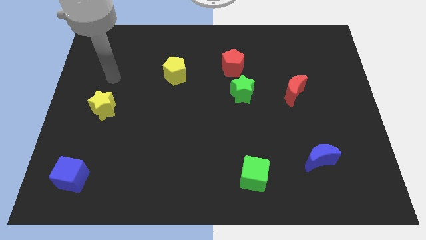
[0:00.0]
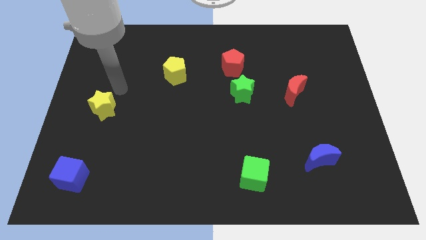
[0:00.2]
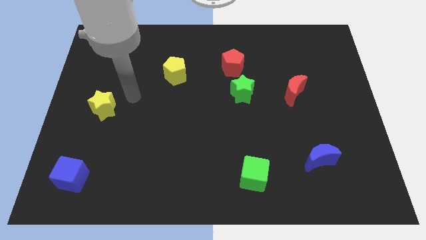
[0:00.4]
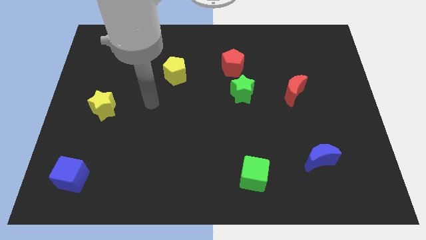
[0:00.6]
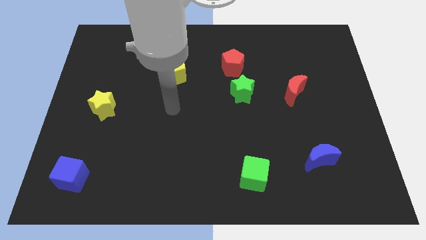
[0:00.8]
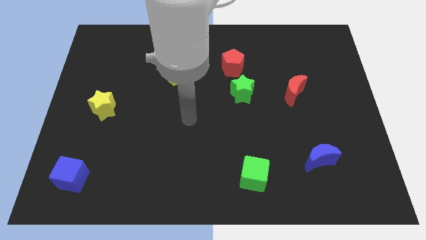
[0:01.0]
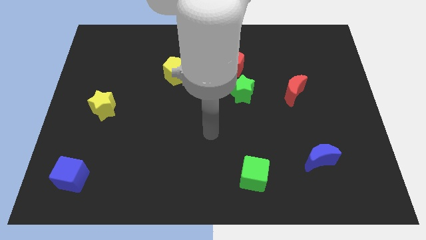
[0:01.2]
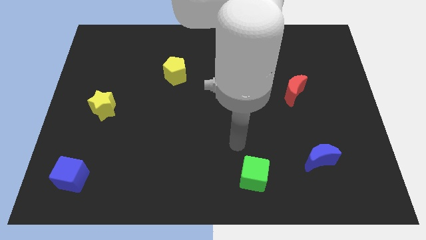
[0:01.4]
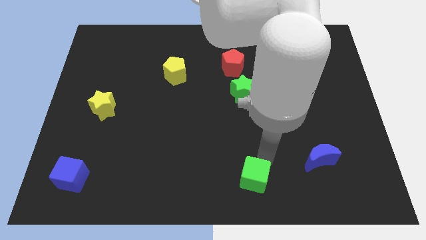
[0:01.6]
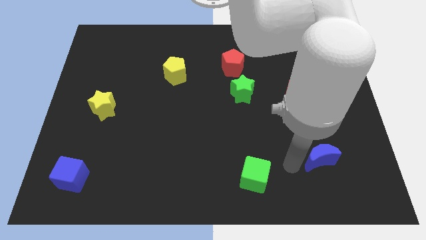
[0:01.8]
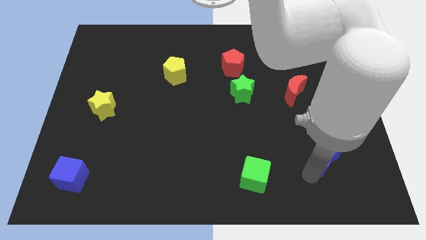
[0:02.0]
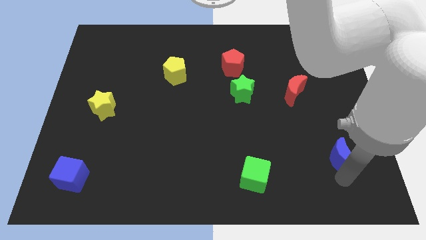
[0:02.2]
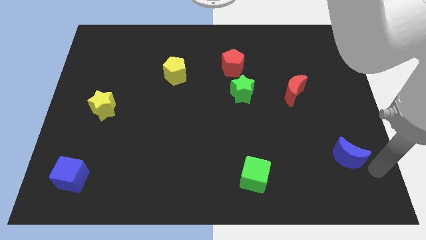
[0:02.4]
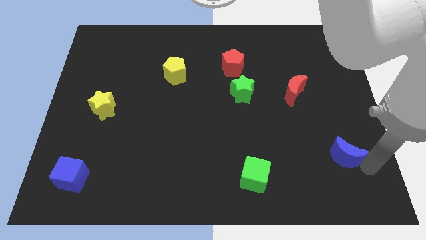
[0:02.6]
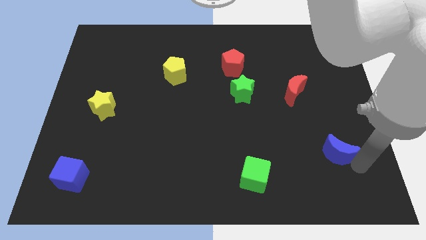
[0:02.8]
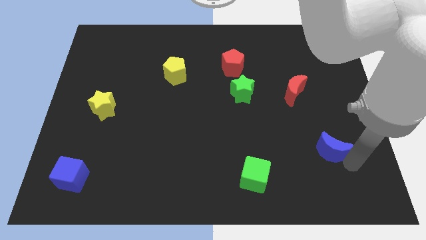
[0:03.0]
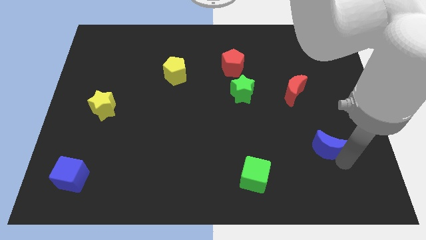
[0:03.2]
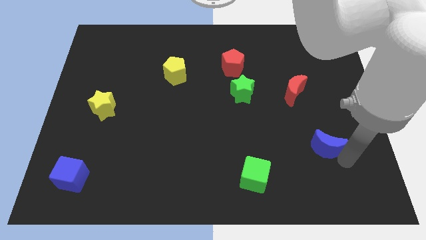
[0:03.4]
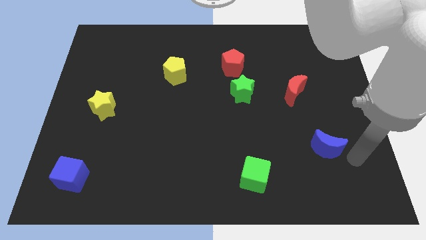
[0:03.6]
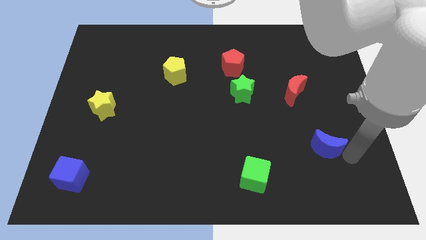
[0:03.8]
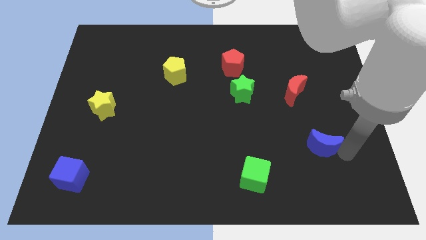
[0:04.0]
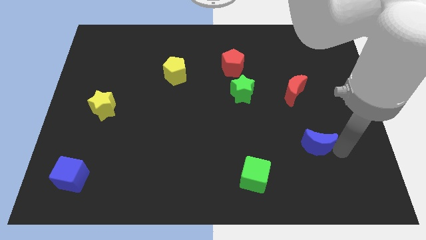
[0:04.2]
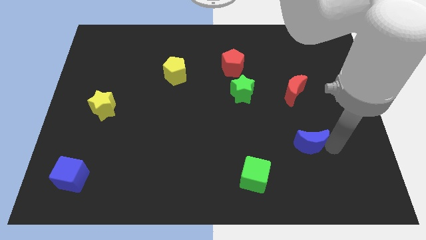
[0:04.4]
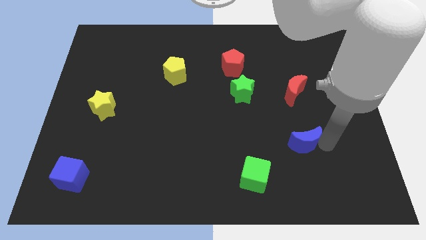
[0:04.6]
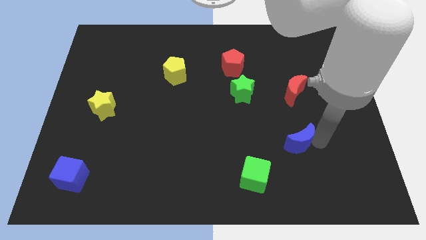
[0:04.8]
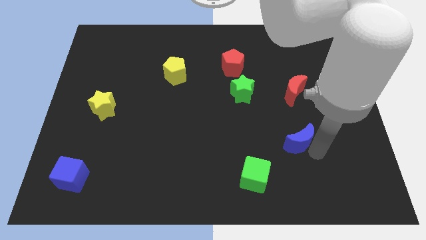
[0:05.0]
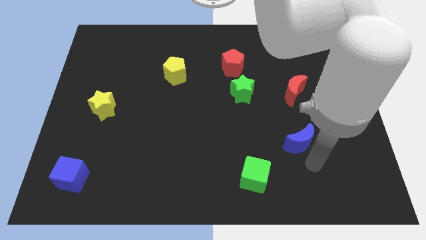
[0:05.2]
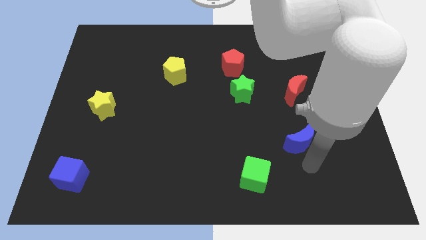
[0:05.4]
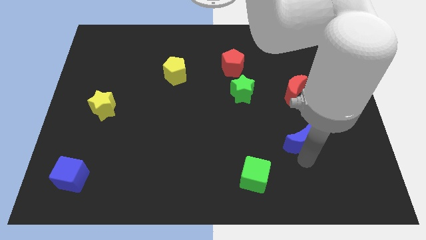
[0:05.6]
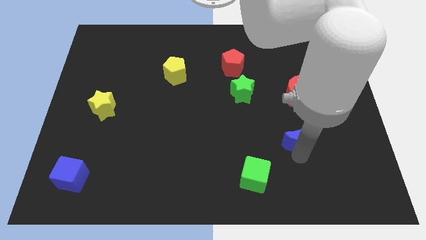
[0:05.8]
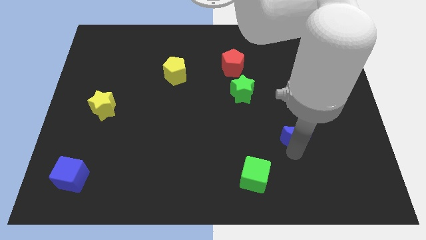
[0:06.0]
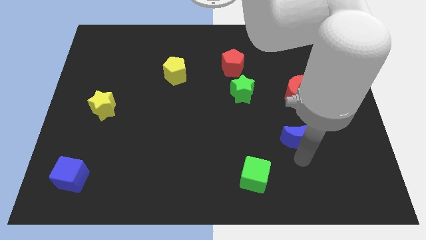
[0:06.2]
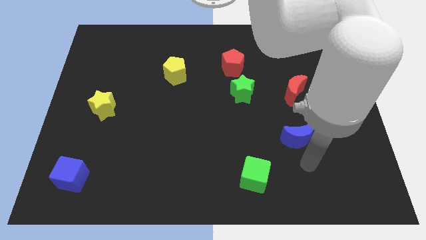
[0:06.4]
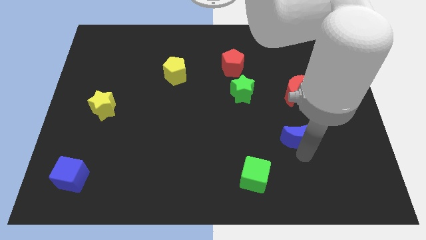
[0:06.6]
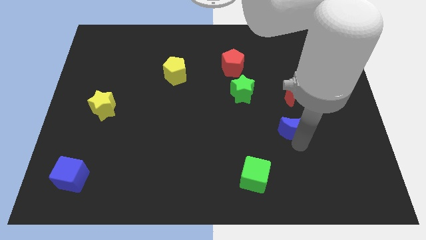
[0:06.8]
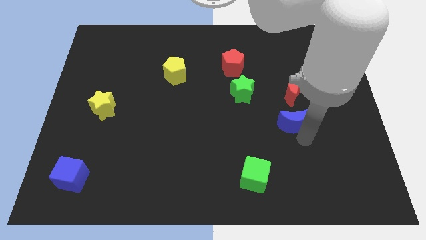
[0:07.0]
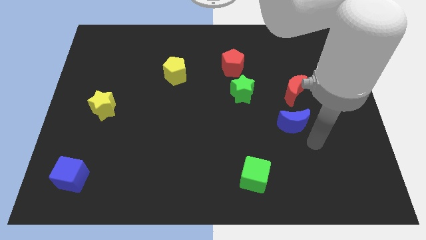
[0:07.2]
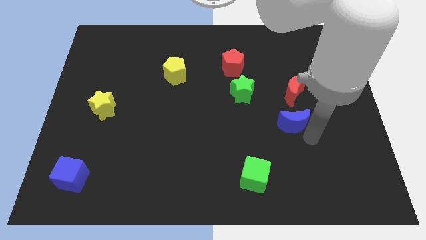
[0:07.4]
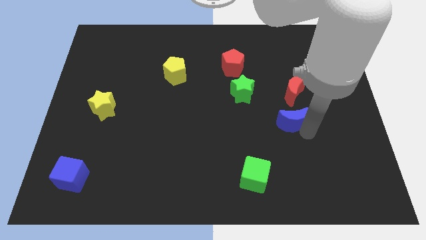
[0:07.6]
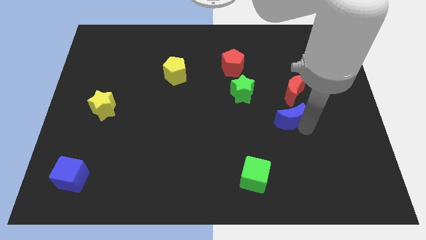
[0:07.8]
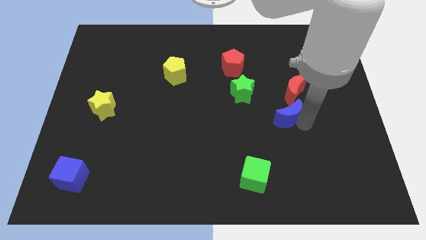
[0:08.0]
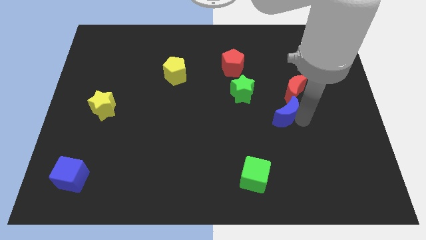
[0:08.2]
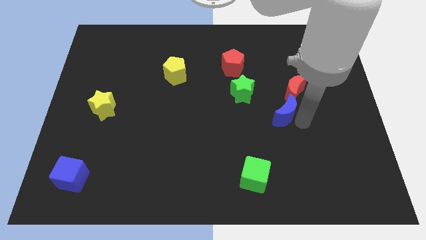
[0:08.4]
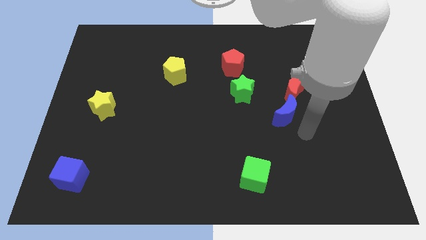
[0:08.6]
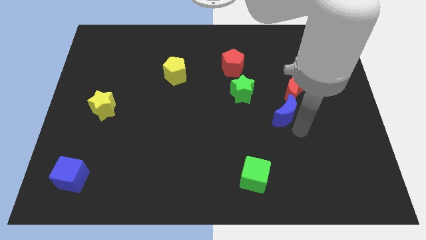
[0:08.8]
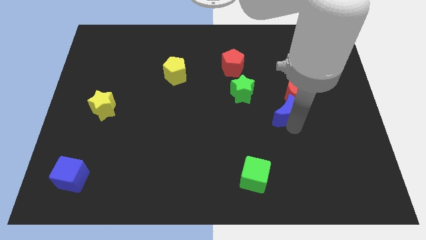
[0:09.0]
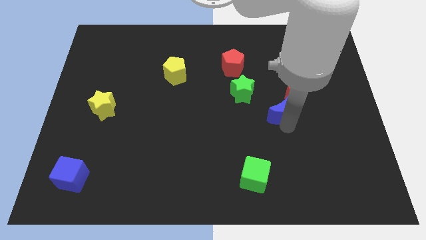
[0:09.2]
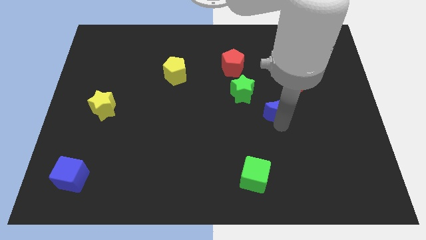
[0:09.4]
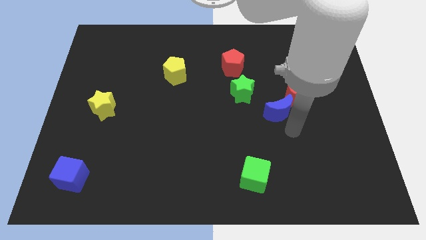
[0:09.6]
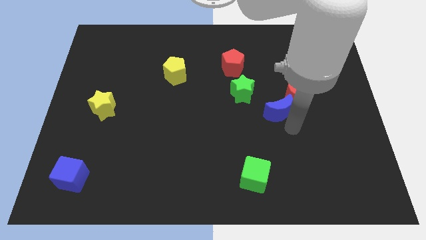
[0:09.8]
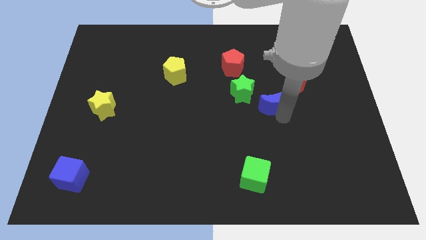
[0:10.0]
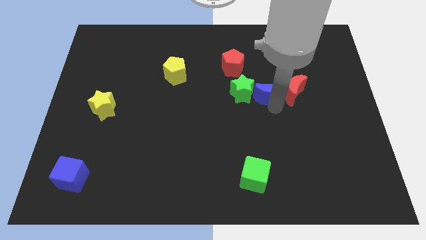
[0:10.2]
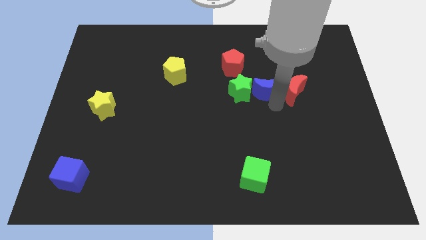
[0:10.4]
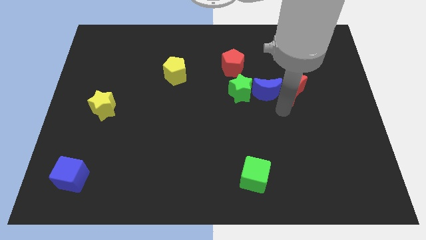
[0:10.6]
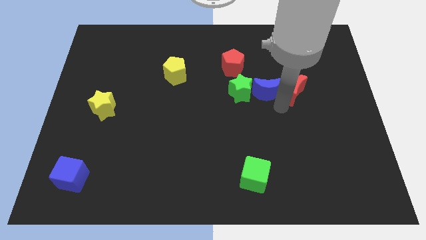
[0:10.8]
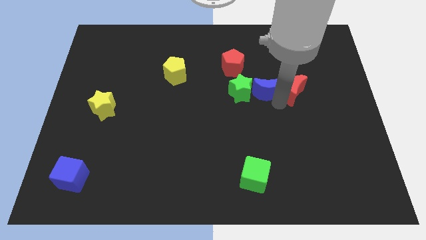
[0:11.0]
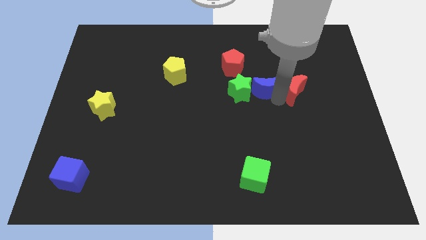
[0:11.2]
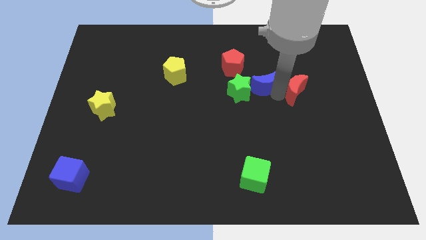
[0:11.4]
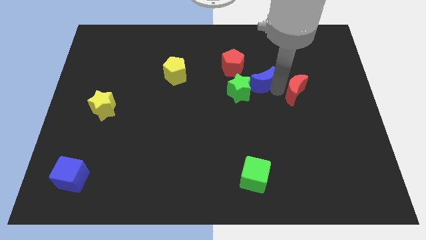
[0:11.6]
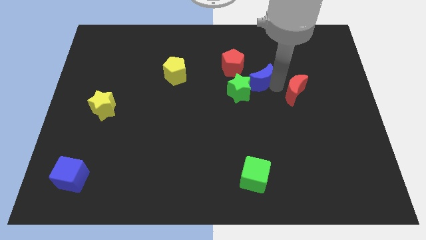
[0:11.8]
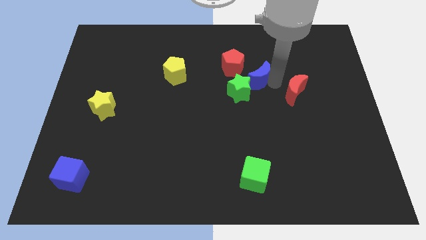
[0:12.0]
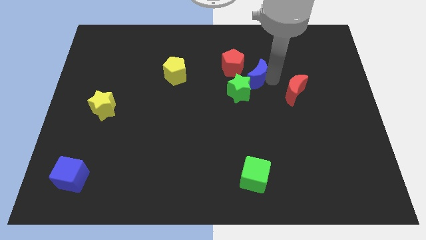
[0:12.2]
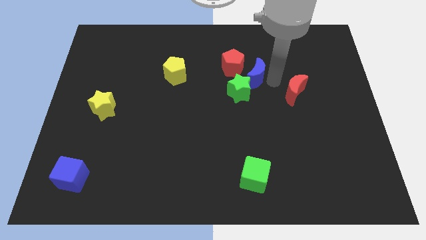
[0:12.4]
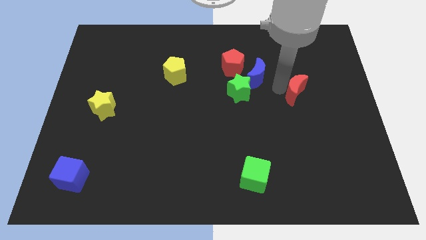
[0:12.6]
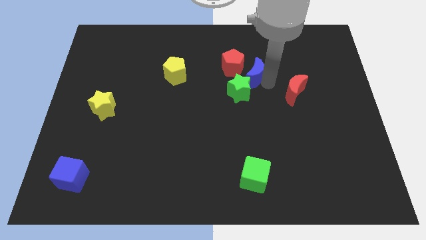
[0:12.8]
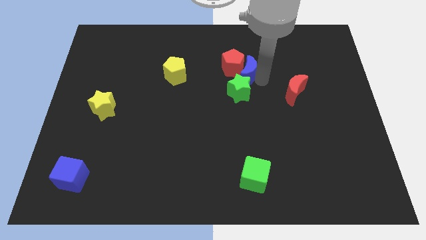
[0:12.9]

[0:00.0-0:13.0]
slide the blue moon to the red pentagon

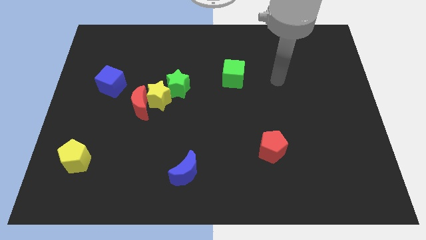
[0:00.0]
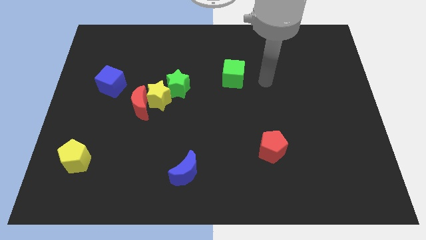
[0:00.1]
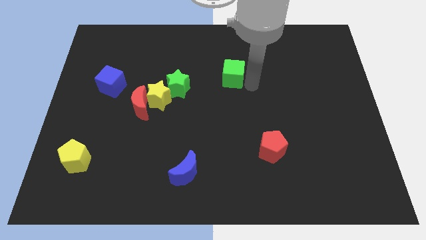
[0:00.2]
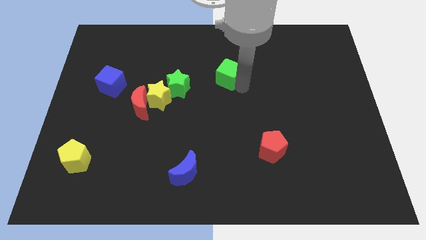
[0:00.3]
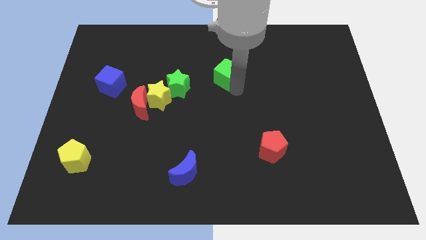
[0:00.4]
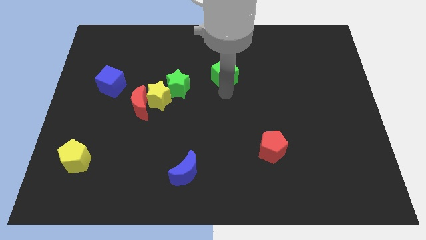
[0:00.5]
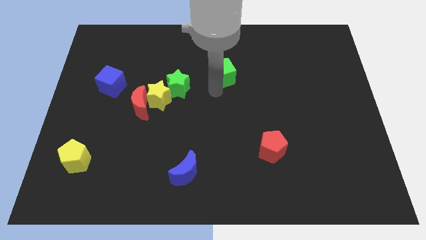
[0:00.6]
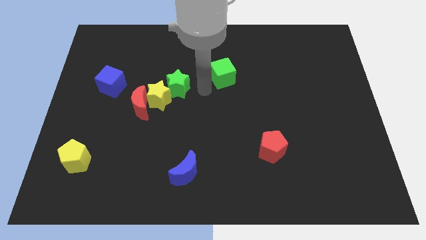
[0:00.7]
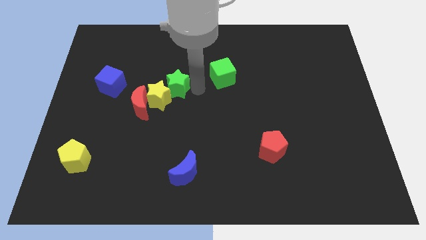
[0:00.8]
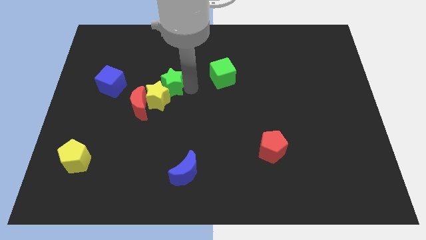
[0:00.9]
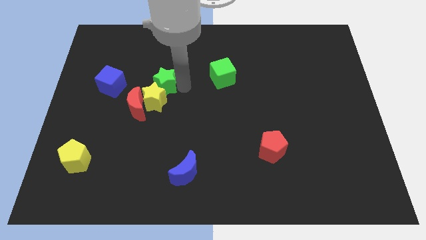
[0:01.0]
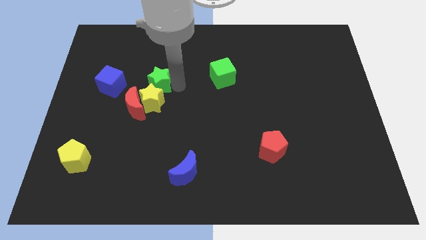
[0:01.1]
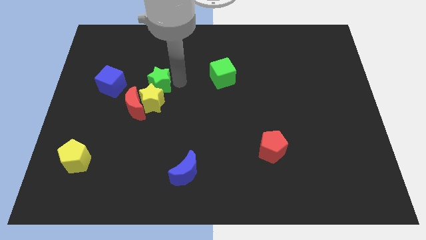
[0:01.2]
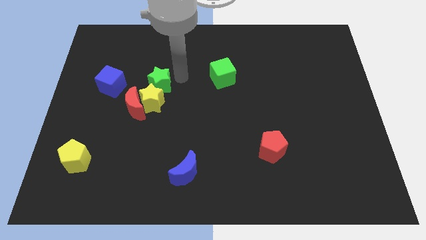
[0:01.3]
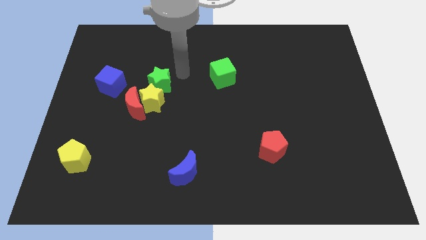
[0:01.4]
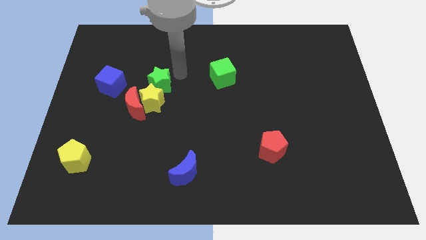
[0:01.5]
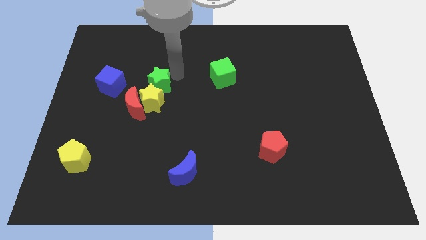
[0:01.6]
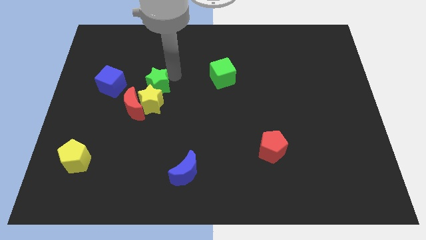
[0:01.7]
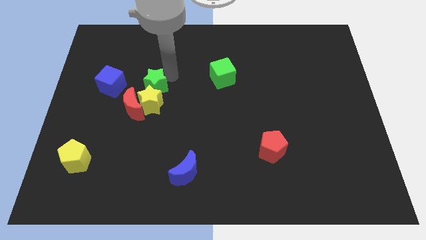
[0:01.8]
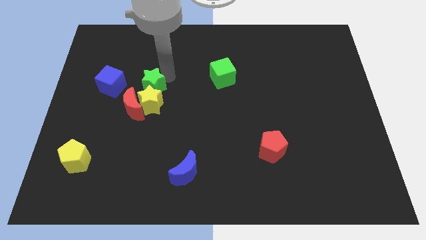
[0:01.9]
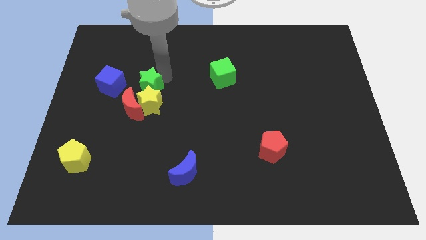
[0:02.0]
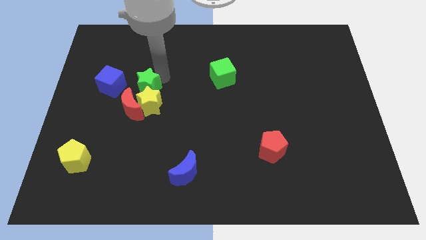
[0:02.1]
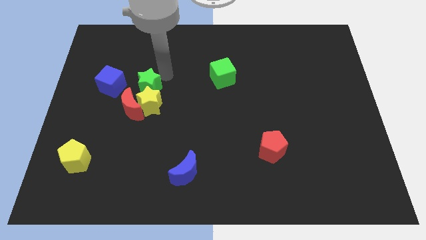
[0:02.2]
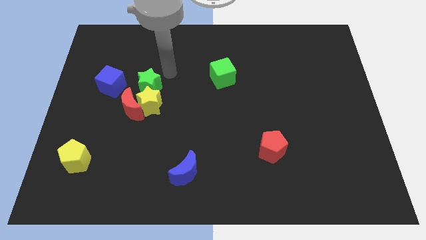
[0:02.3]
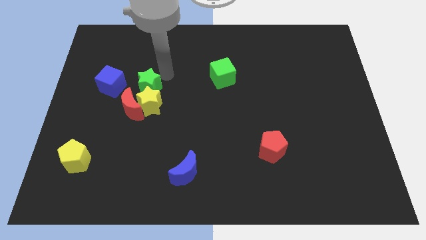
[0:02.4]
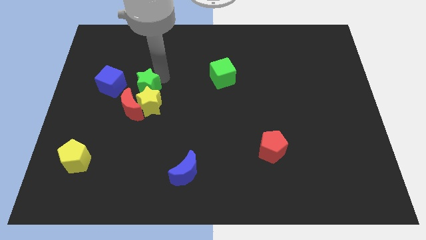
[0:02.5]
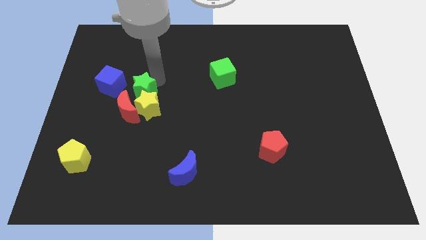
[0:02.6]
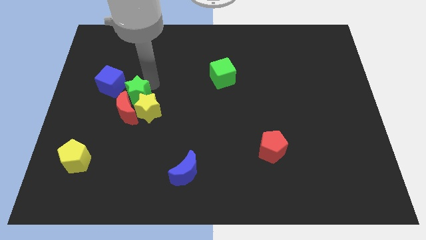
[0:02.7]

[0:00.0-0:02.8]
move the green star to the red moon
